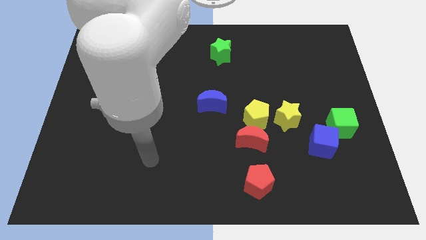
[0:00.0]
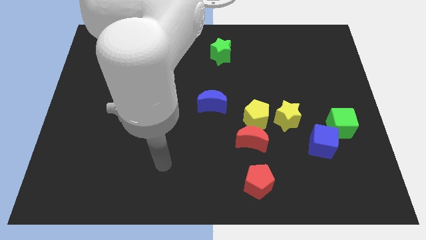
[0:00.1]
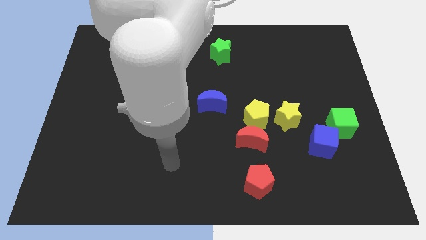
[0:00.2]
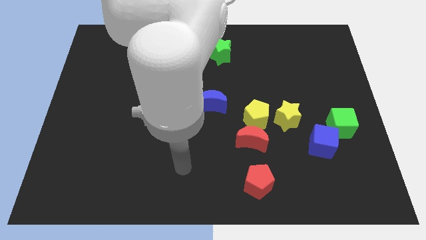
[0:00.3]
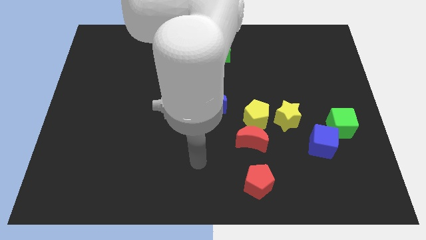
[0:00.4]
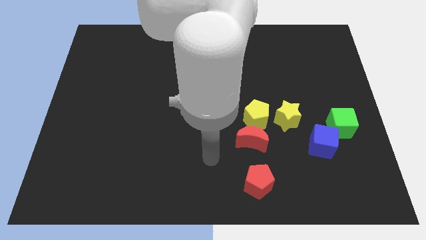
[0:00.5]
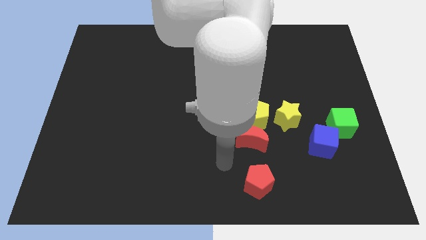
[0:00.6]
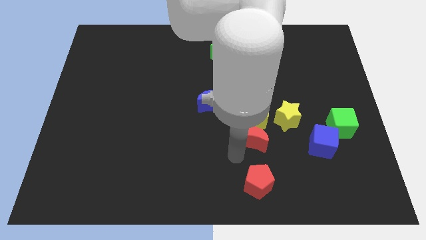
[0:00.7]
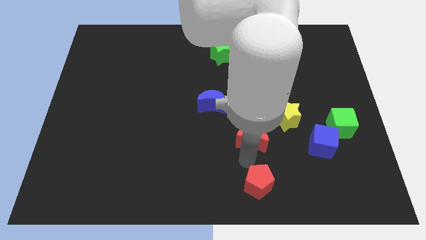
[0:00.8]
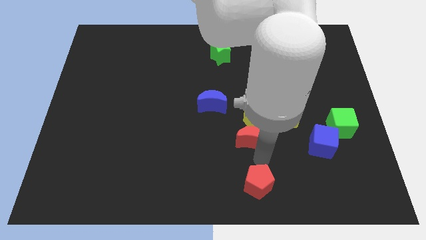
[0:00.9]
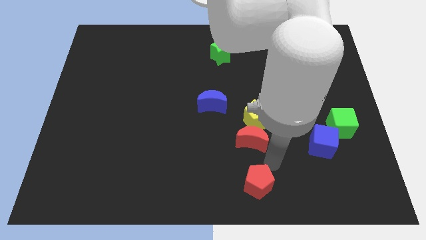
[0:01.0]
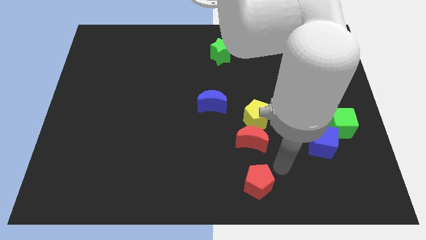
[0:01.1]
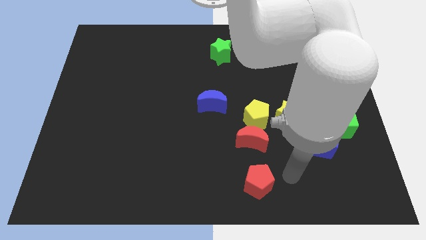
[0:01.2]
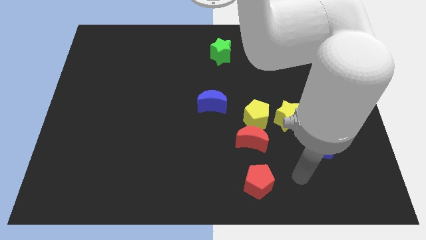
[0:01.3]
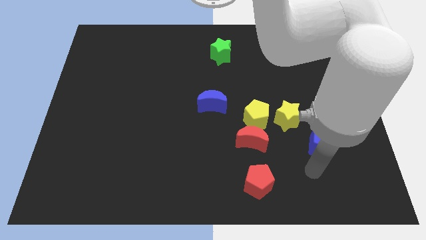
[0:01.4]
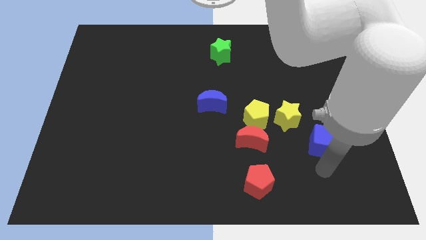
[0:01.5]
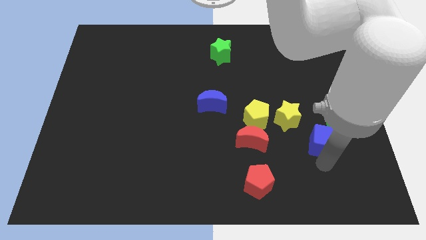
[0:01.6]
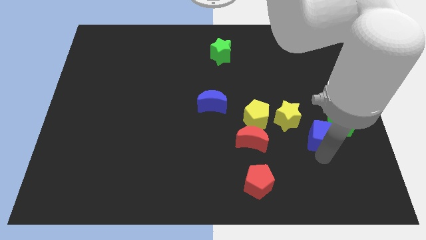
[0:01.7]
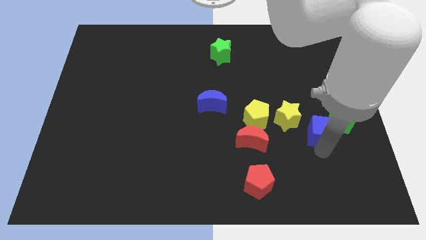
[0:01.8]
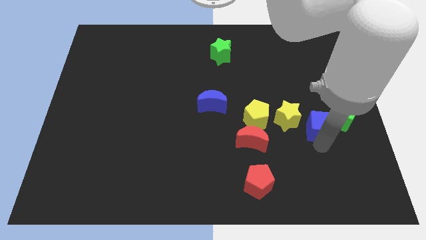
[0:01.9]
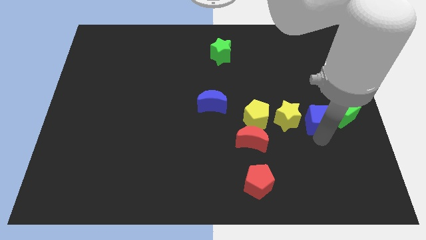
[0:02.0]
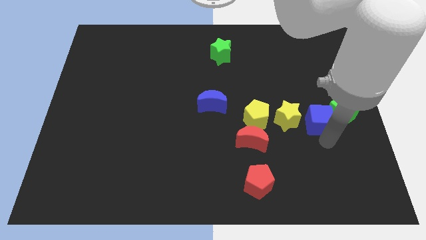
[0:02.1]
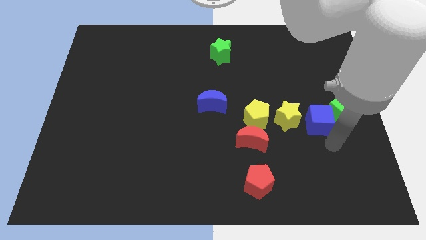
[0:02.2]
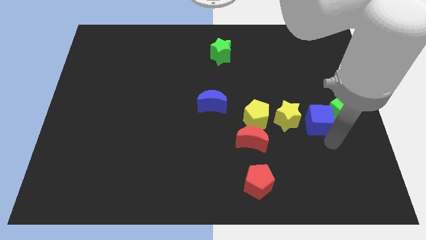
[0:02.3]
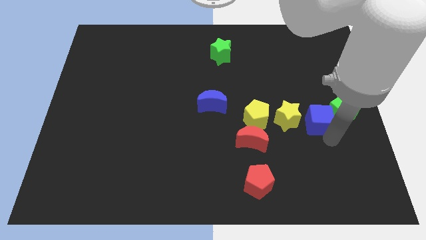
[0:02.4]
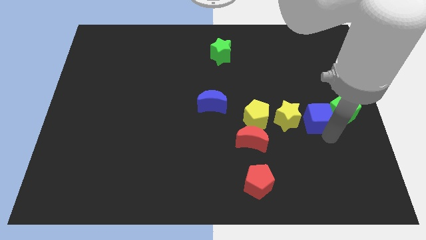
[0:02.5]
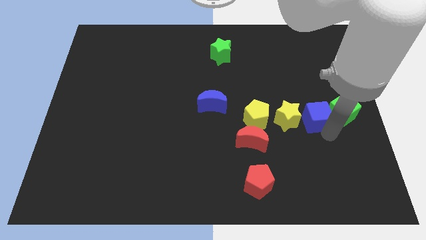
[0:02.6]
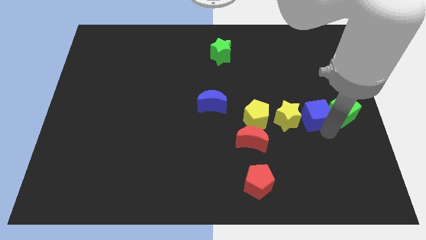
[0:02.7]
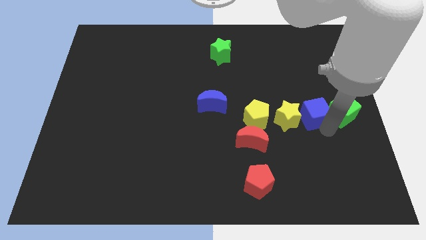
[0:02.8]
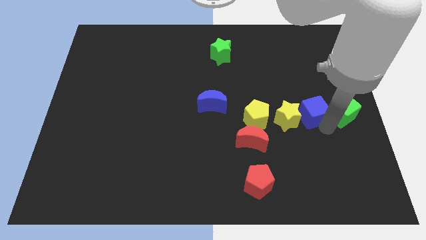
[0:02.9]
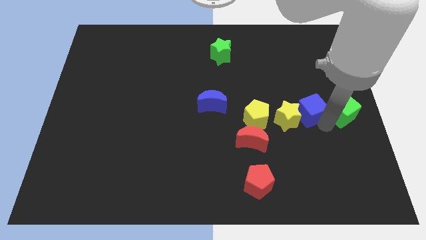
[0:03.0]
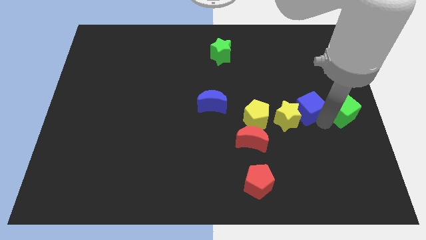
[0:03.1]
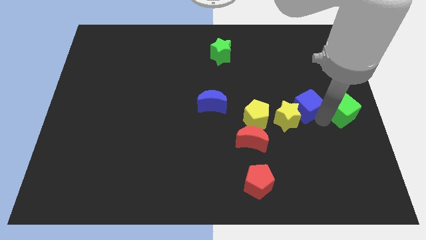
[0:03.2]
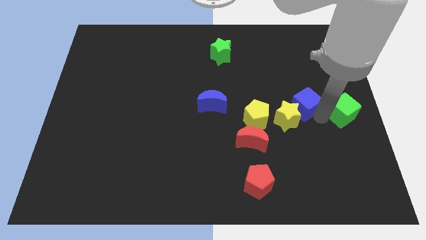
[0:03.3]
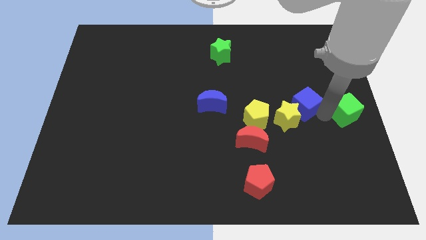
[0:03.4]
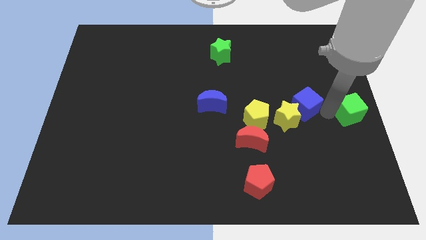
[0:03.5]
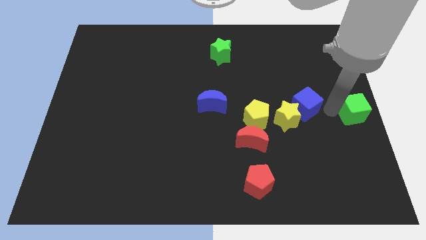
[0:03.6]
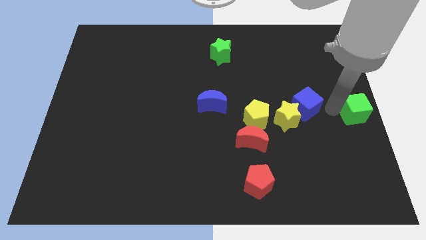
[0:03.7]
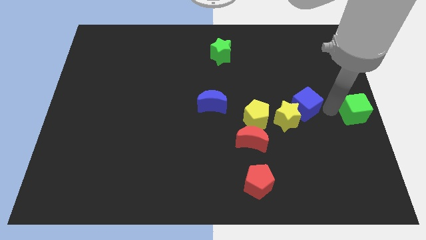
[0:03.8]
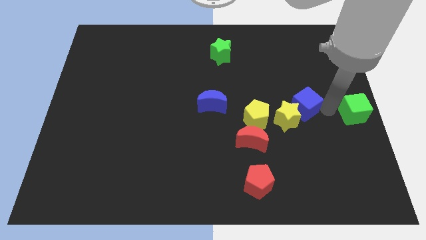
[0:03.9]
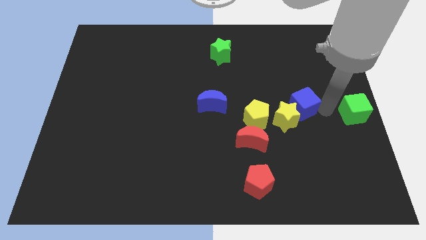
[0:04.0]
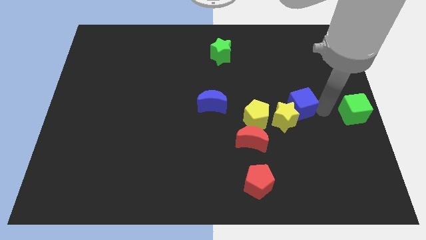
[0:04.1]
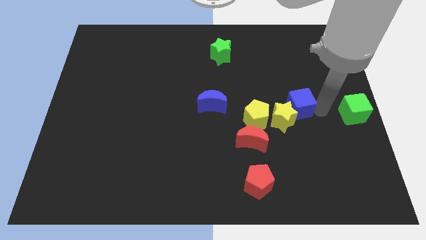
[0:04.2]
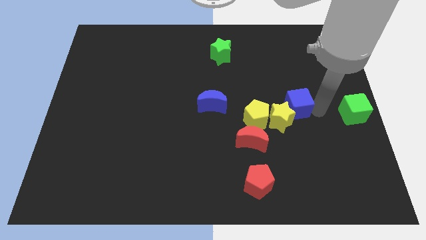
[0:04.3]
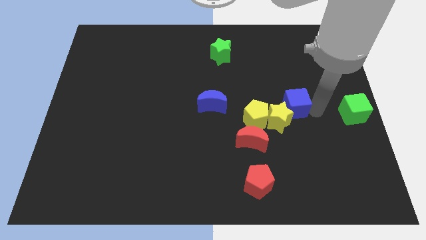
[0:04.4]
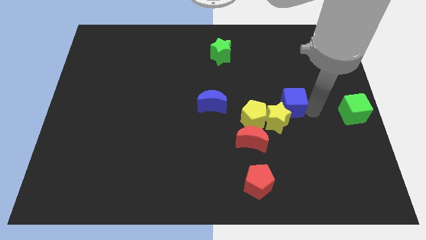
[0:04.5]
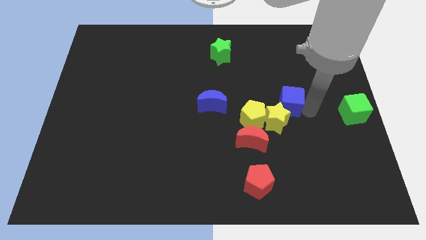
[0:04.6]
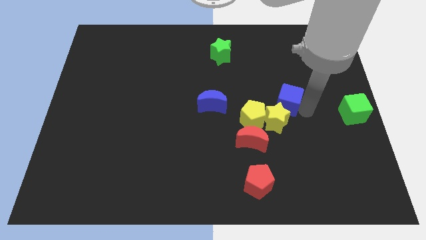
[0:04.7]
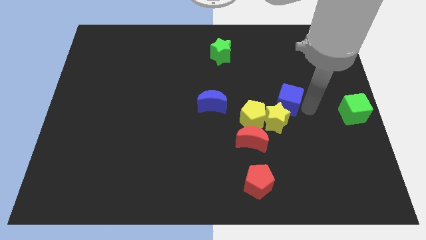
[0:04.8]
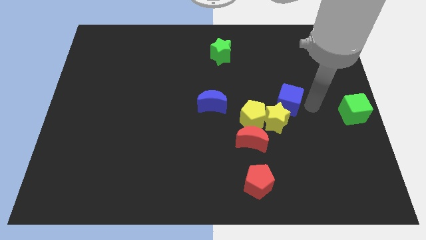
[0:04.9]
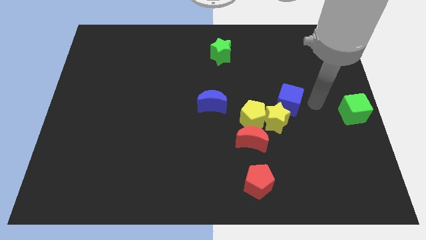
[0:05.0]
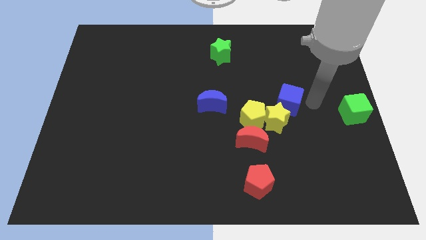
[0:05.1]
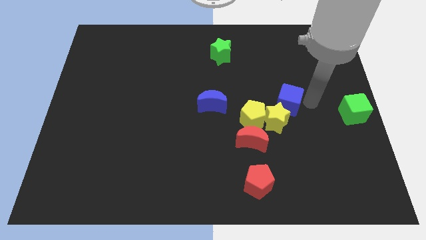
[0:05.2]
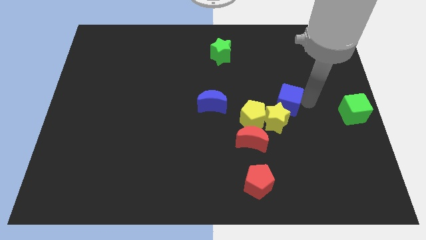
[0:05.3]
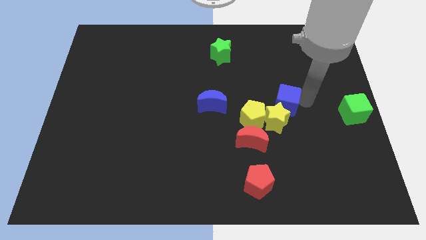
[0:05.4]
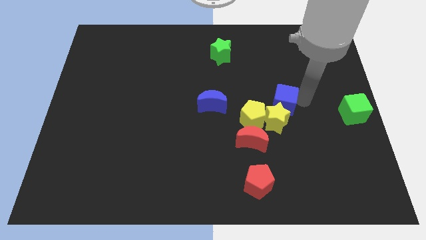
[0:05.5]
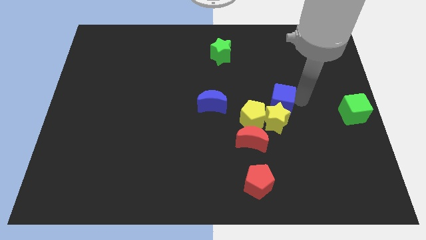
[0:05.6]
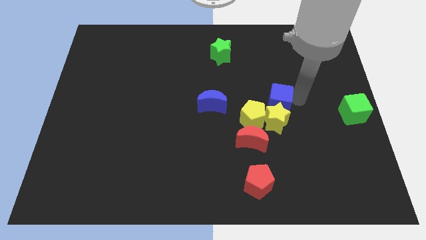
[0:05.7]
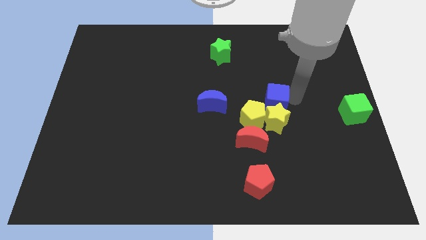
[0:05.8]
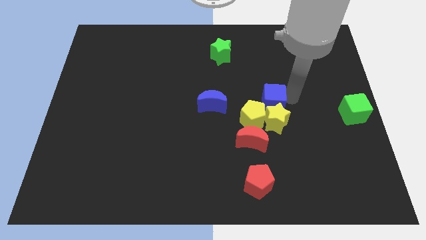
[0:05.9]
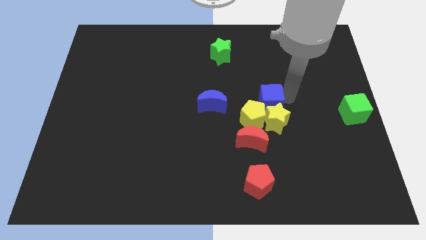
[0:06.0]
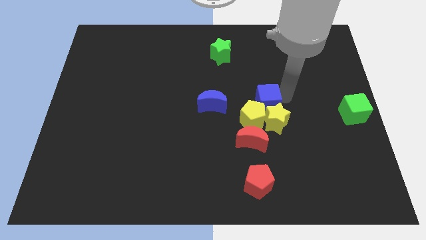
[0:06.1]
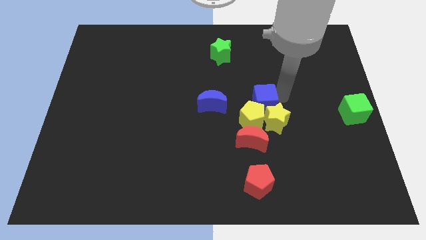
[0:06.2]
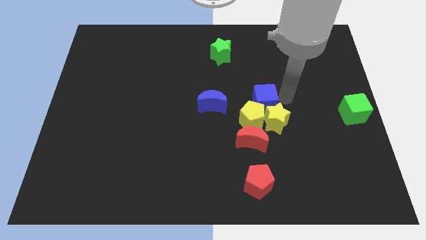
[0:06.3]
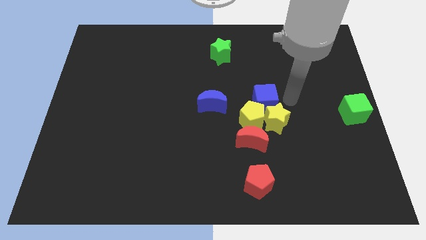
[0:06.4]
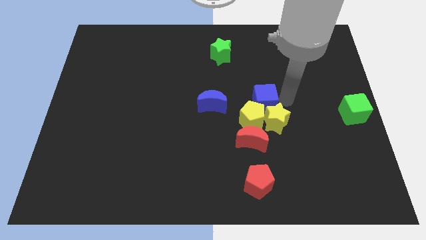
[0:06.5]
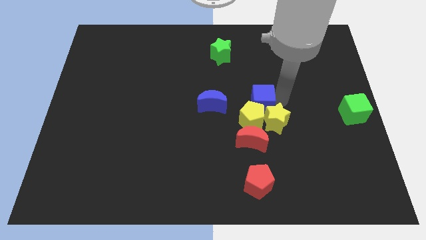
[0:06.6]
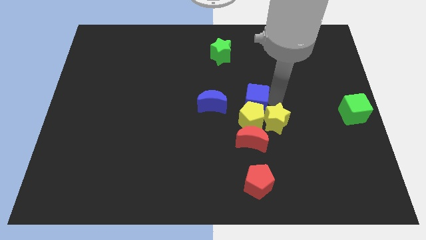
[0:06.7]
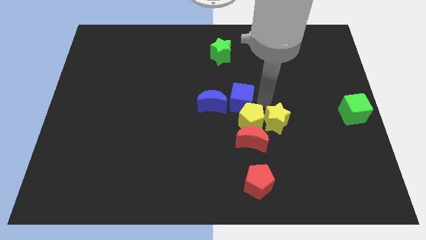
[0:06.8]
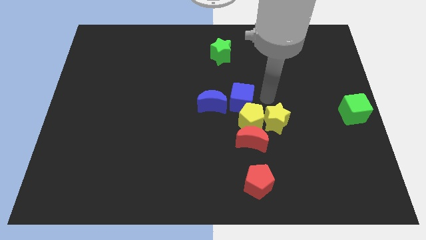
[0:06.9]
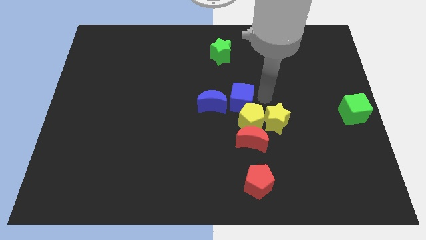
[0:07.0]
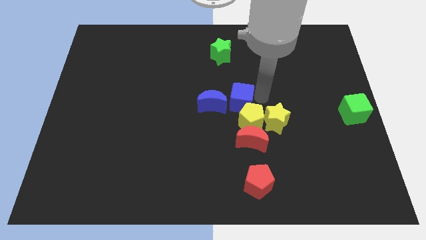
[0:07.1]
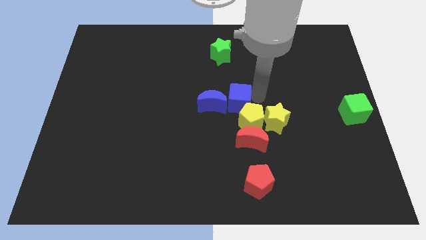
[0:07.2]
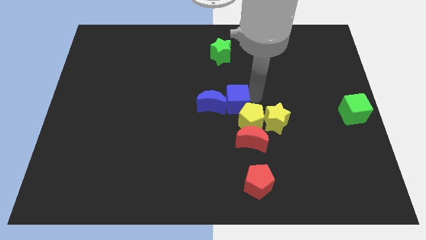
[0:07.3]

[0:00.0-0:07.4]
push the blue cube to the blue moon

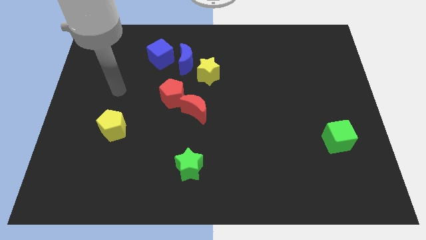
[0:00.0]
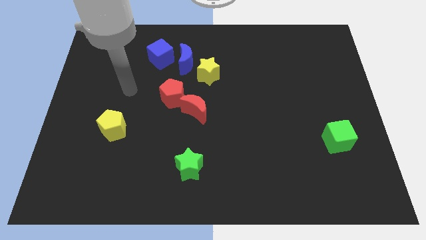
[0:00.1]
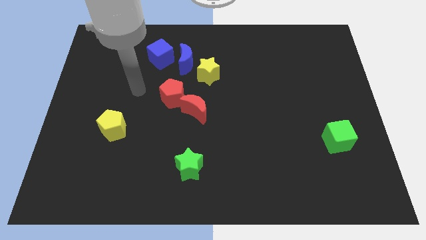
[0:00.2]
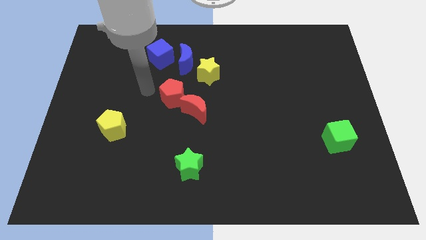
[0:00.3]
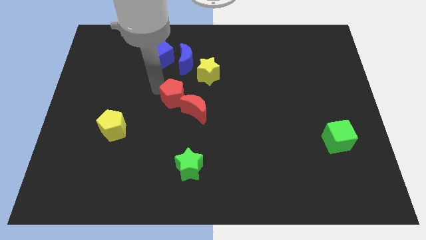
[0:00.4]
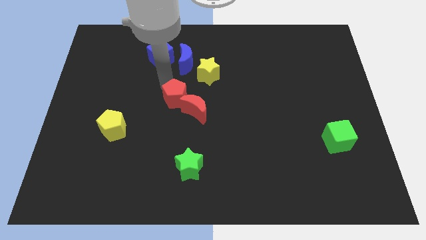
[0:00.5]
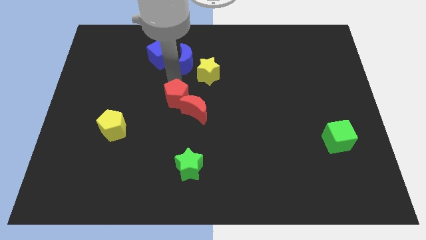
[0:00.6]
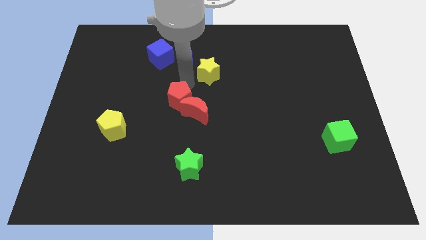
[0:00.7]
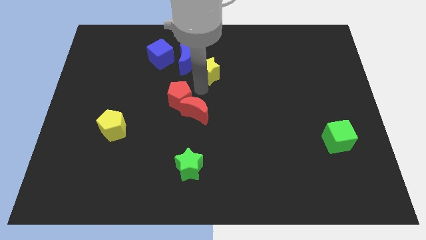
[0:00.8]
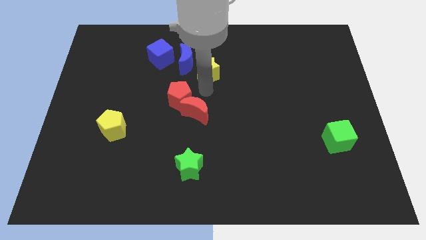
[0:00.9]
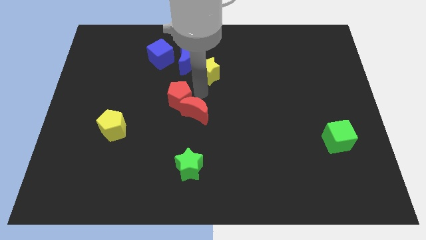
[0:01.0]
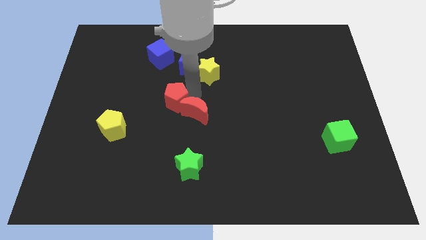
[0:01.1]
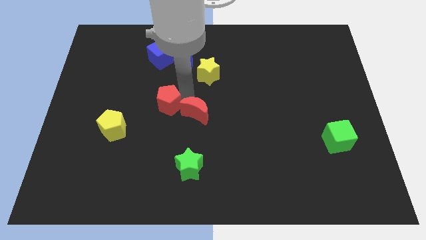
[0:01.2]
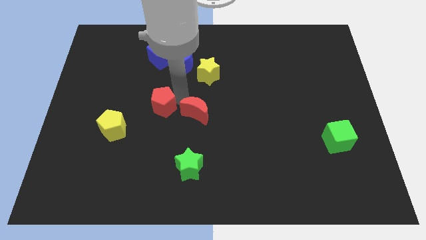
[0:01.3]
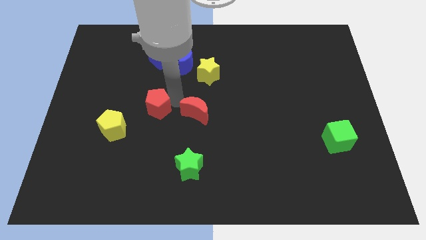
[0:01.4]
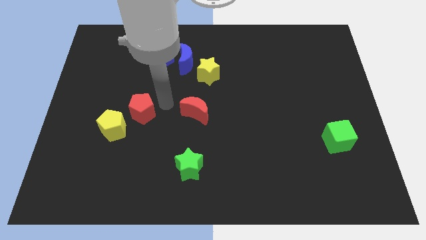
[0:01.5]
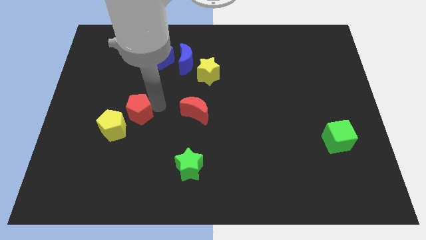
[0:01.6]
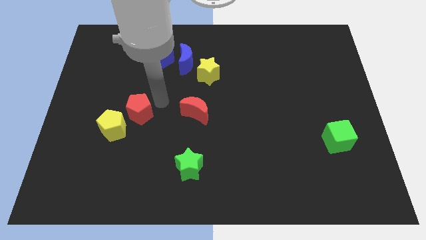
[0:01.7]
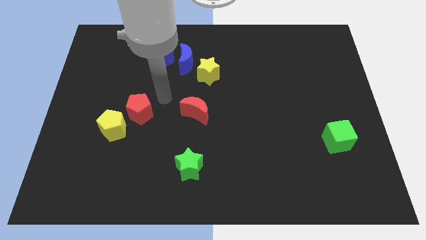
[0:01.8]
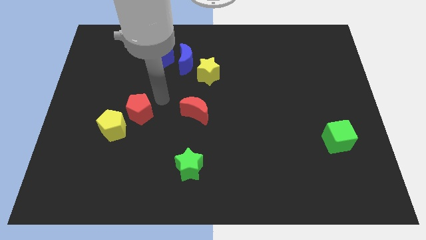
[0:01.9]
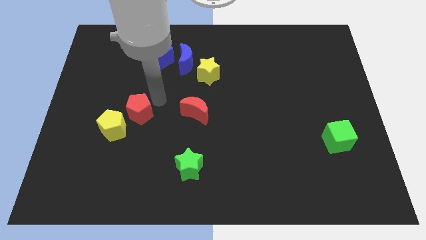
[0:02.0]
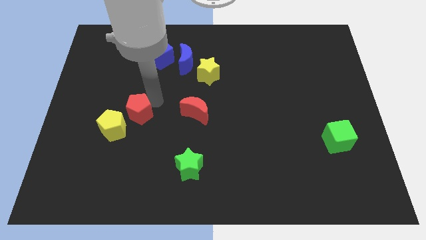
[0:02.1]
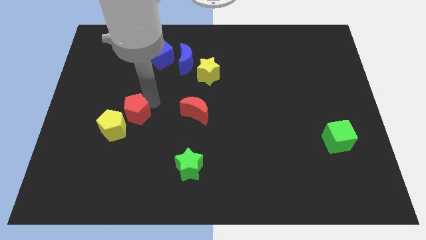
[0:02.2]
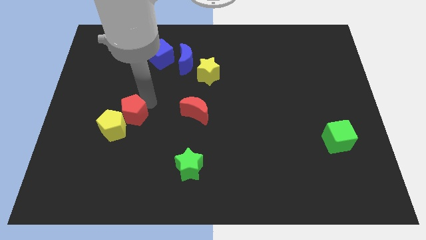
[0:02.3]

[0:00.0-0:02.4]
slide the red pentagon next to the yellow pentagon
